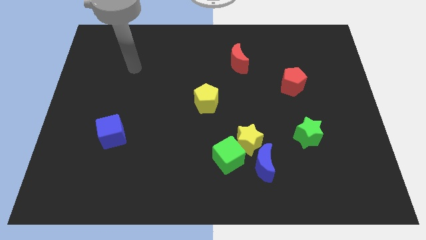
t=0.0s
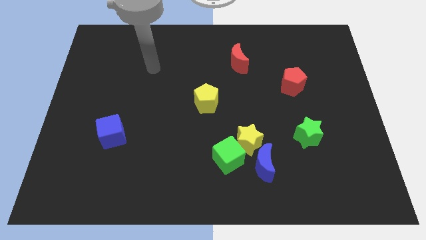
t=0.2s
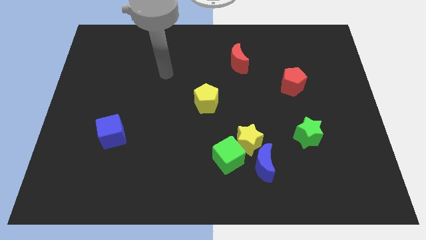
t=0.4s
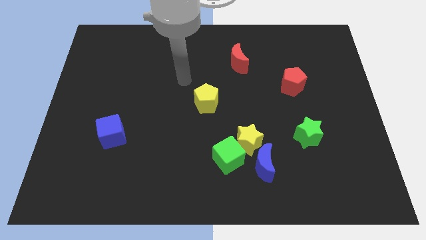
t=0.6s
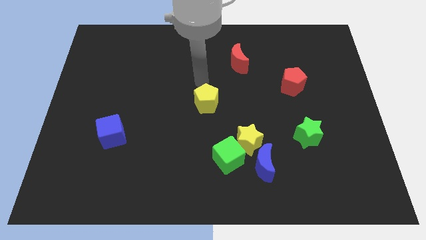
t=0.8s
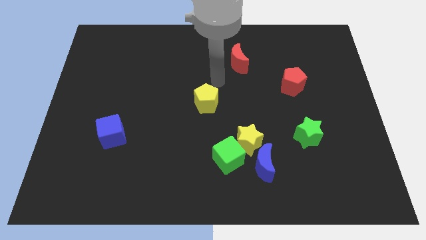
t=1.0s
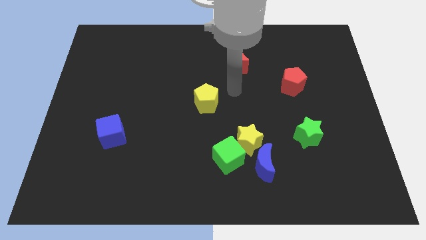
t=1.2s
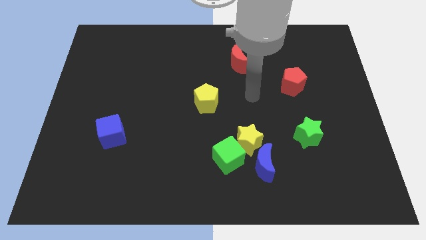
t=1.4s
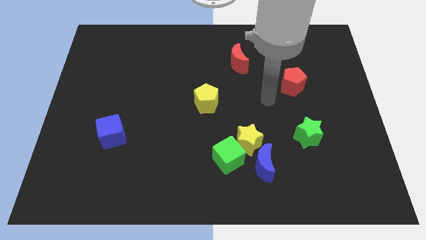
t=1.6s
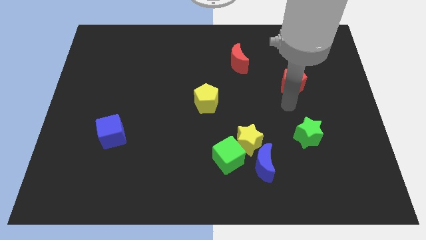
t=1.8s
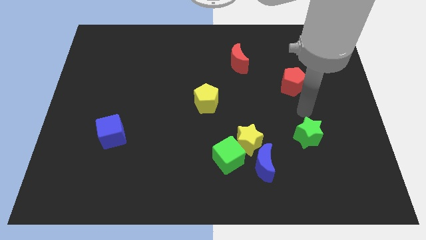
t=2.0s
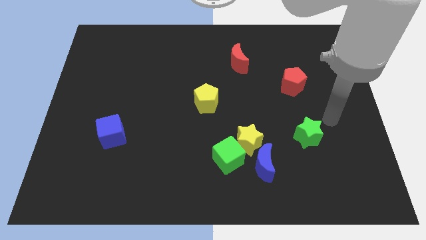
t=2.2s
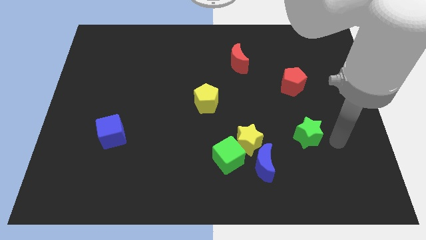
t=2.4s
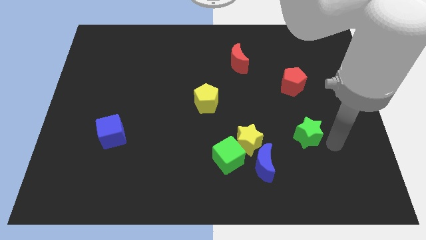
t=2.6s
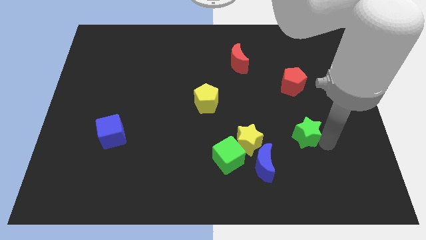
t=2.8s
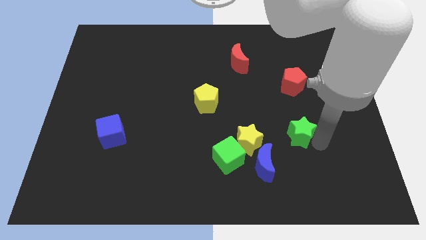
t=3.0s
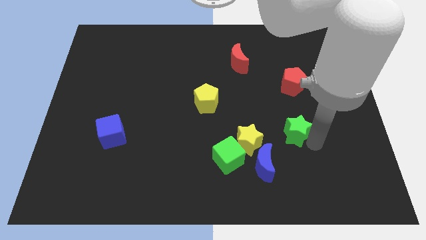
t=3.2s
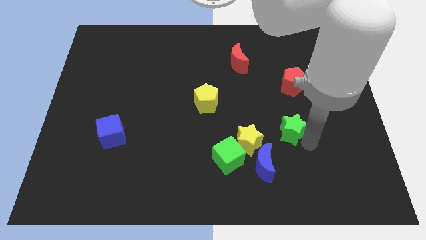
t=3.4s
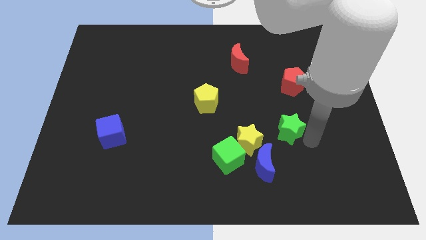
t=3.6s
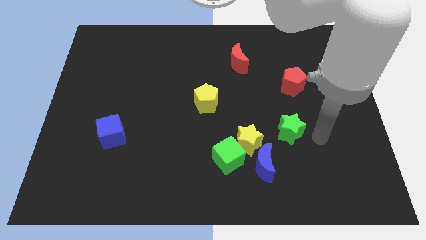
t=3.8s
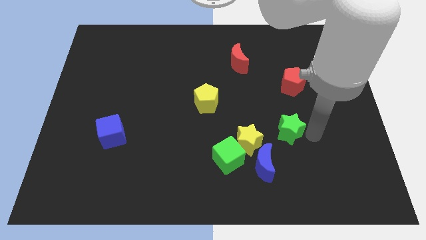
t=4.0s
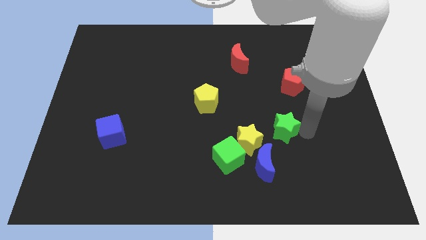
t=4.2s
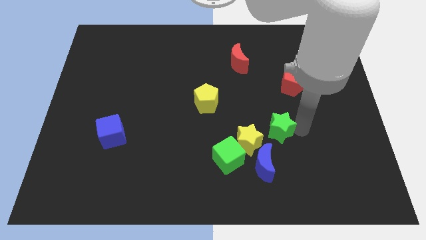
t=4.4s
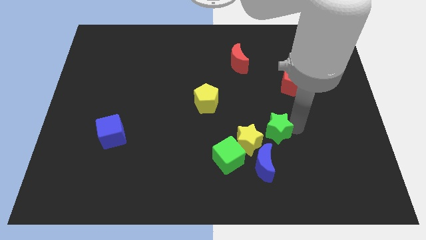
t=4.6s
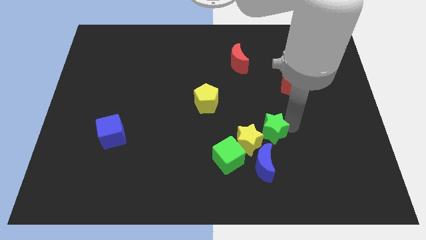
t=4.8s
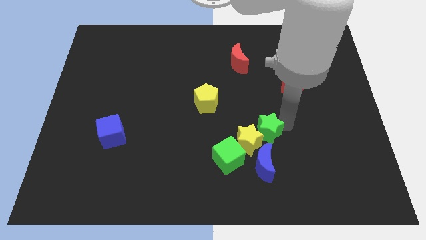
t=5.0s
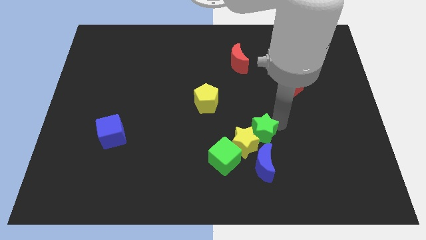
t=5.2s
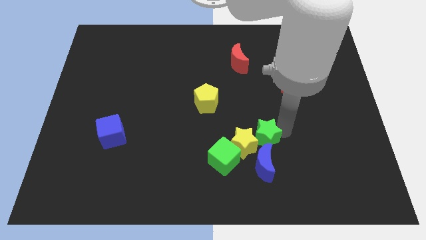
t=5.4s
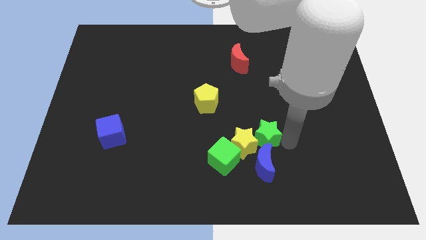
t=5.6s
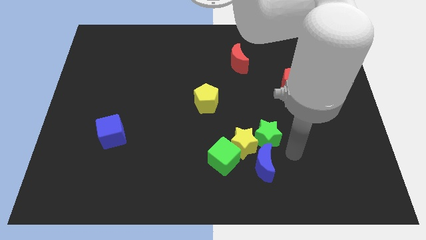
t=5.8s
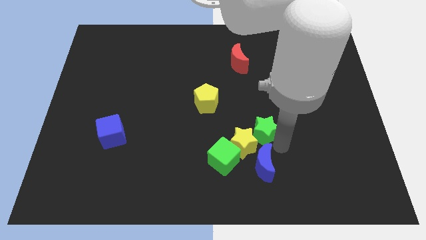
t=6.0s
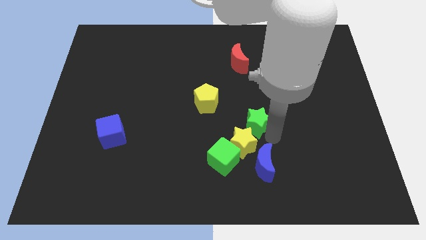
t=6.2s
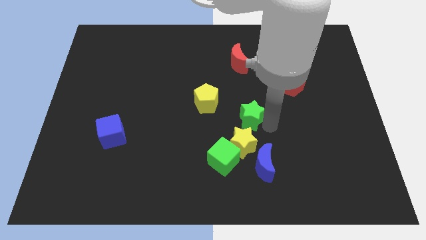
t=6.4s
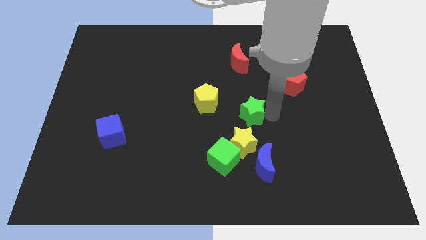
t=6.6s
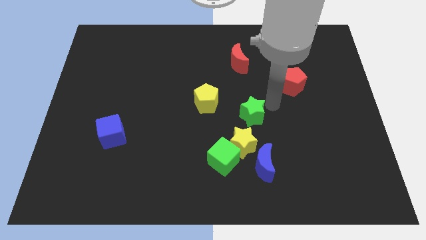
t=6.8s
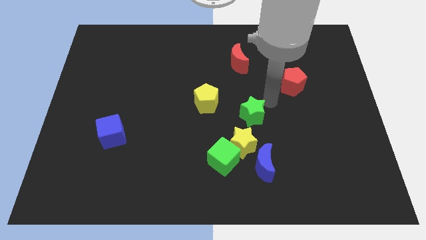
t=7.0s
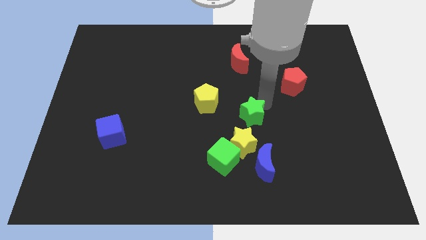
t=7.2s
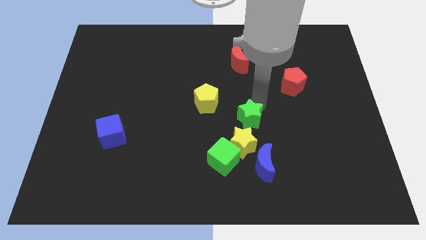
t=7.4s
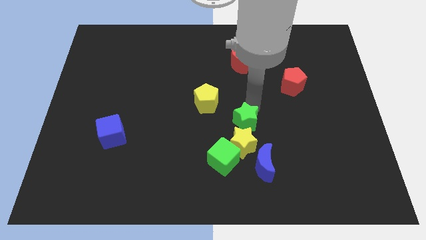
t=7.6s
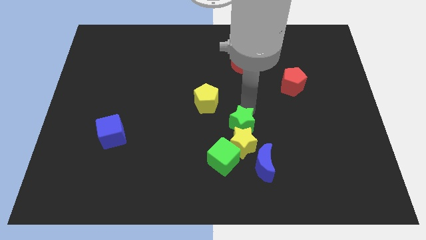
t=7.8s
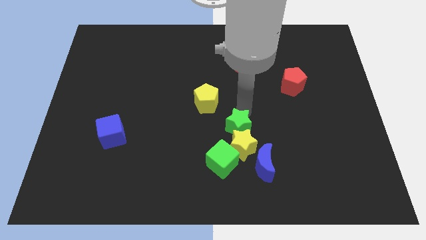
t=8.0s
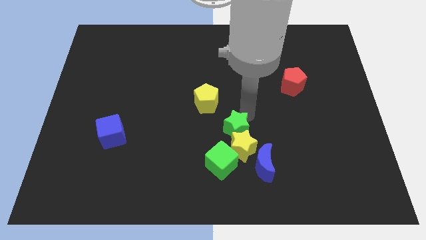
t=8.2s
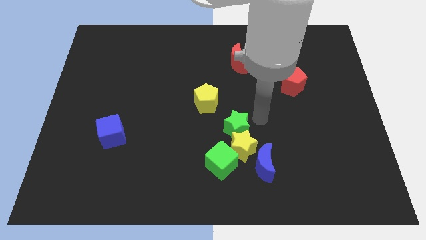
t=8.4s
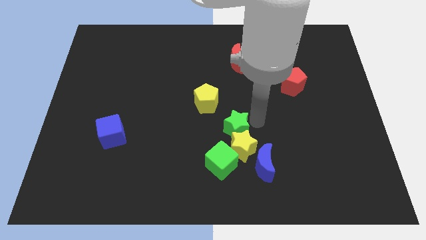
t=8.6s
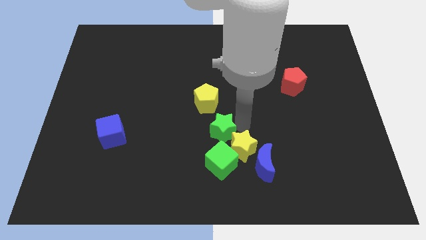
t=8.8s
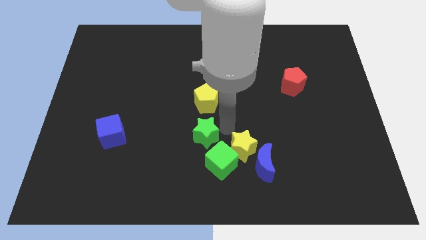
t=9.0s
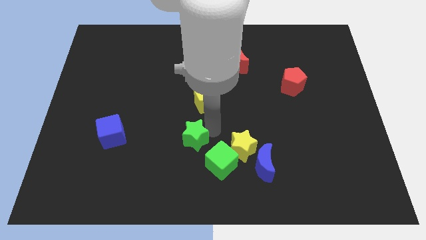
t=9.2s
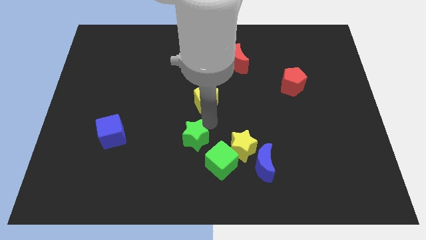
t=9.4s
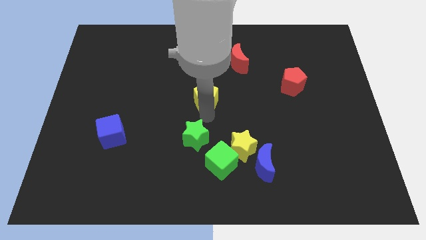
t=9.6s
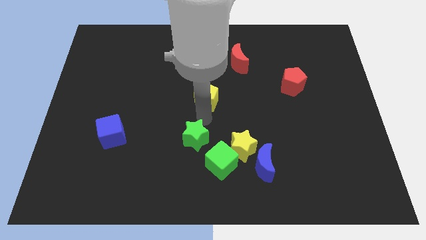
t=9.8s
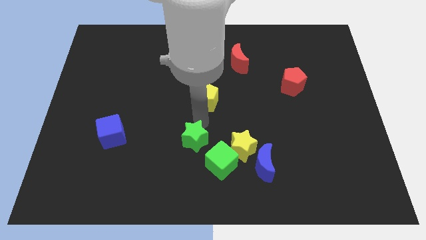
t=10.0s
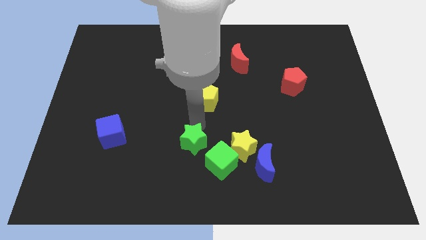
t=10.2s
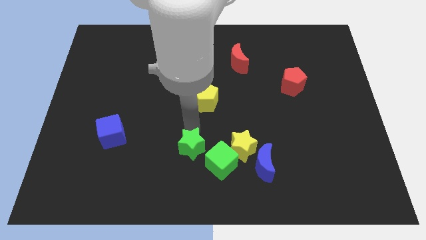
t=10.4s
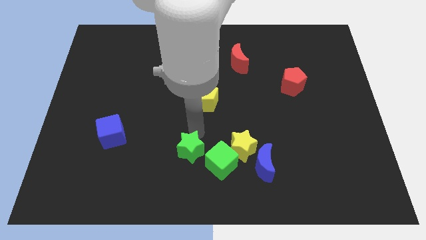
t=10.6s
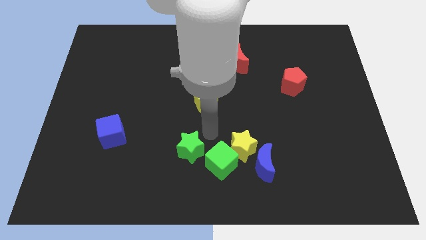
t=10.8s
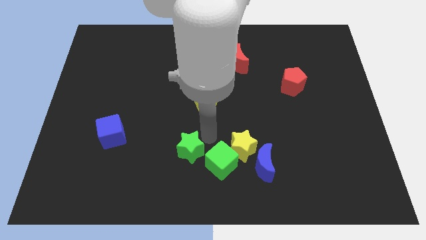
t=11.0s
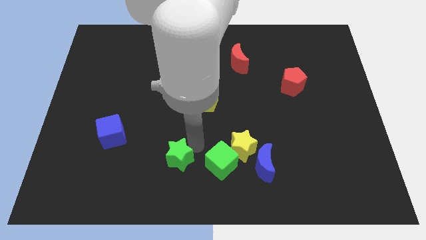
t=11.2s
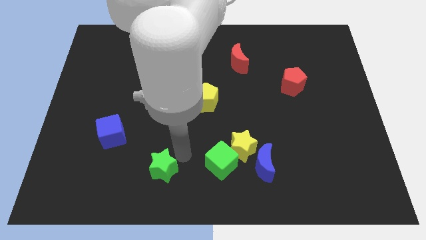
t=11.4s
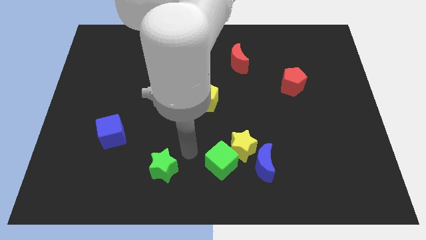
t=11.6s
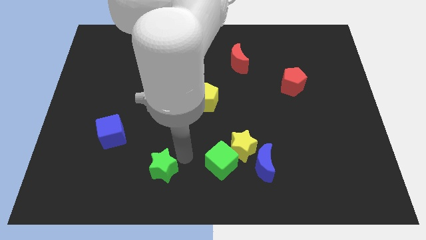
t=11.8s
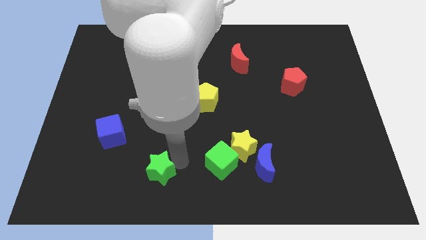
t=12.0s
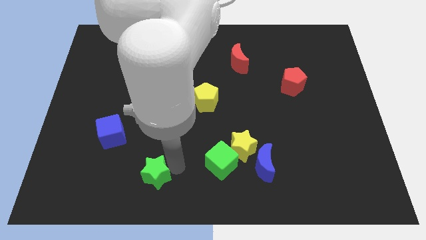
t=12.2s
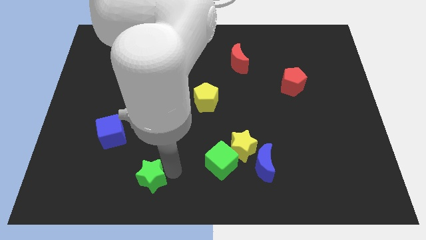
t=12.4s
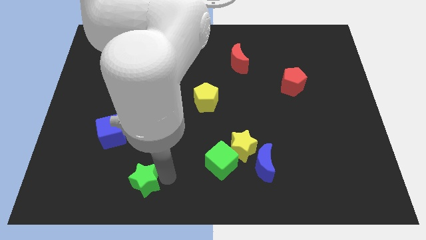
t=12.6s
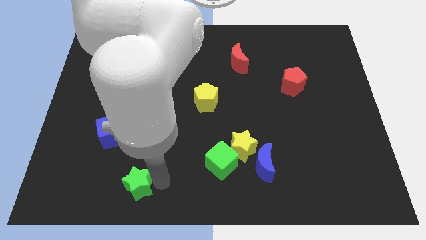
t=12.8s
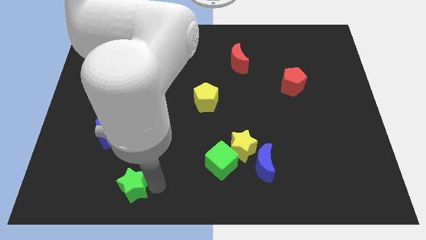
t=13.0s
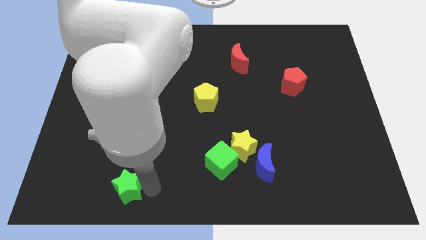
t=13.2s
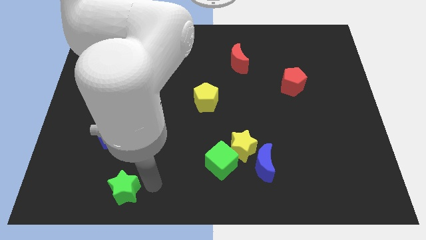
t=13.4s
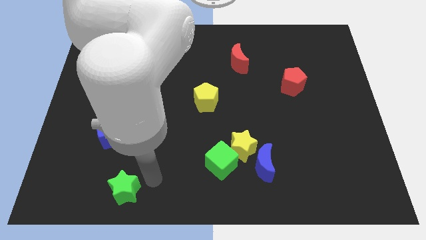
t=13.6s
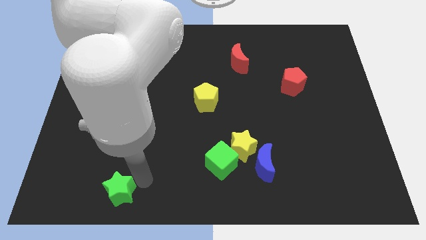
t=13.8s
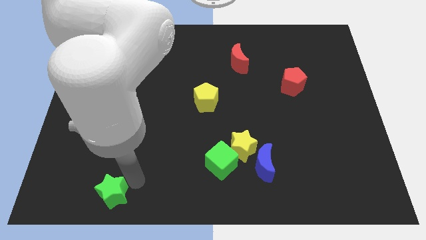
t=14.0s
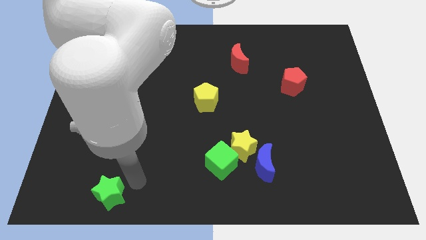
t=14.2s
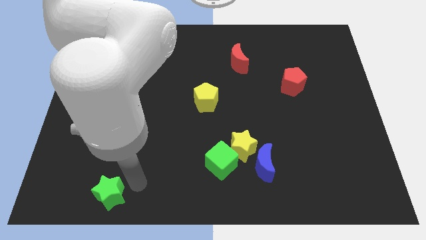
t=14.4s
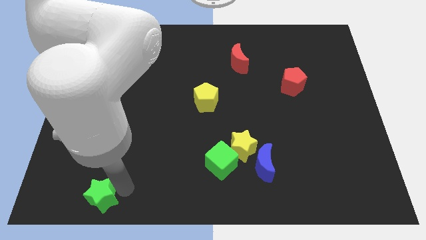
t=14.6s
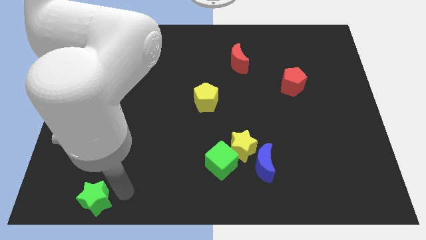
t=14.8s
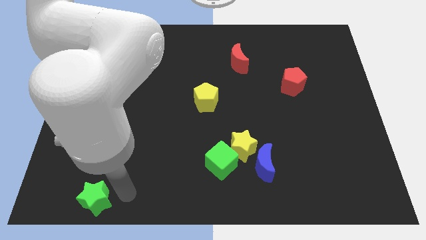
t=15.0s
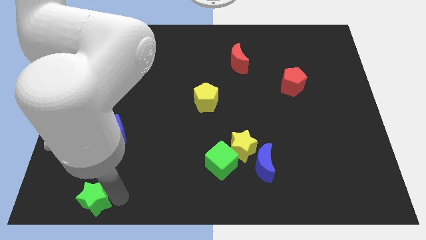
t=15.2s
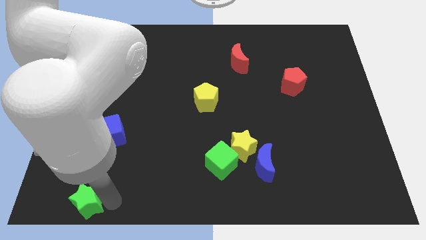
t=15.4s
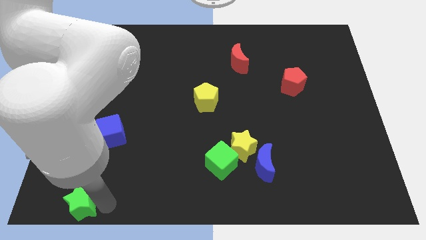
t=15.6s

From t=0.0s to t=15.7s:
push the green star to the bottom left of the board
